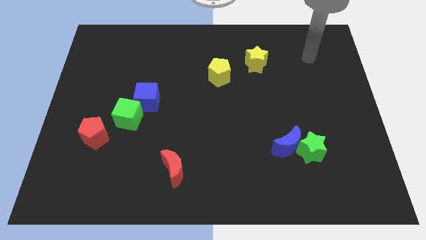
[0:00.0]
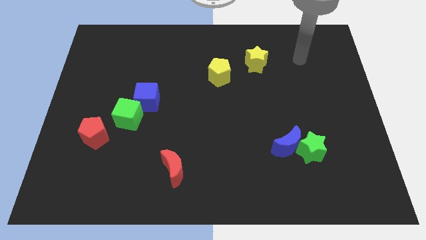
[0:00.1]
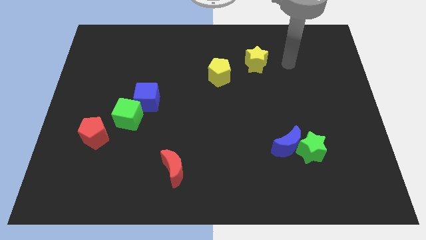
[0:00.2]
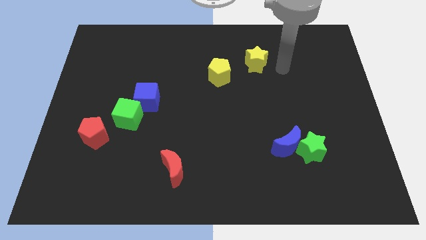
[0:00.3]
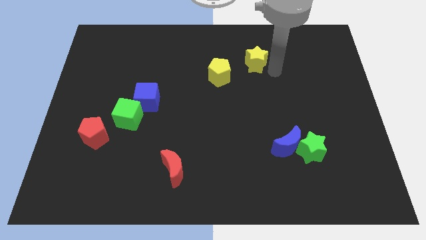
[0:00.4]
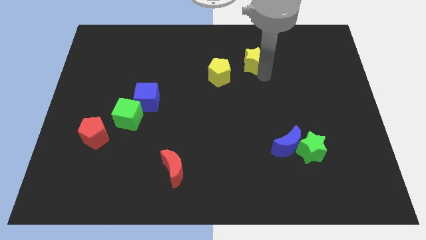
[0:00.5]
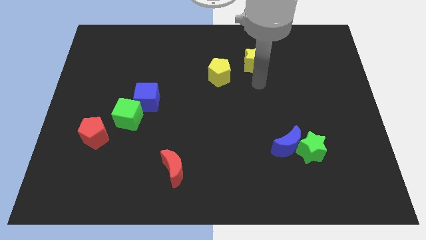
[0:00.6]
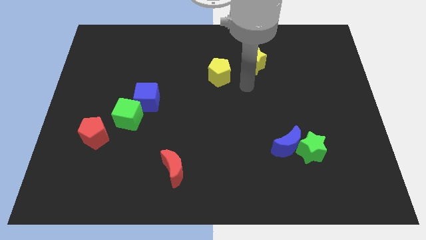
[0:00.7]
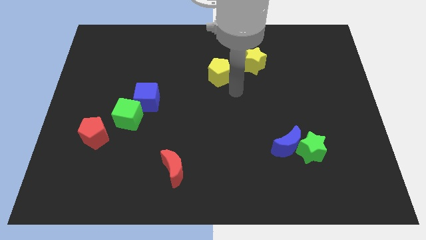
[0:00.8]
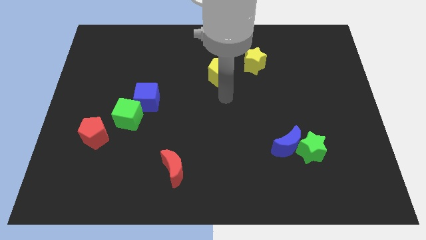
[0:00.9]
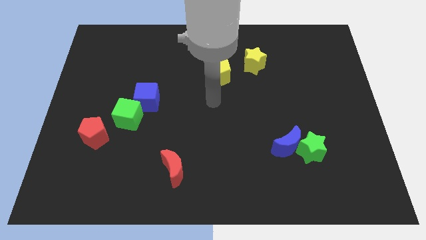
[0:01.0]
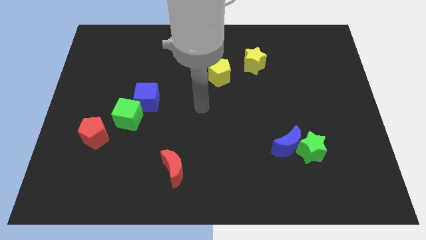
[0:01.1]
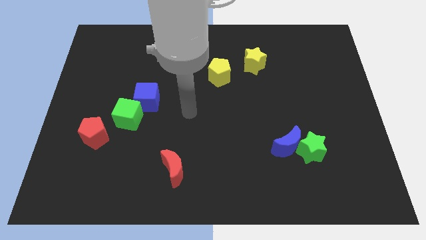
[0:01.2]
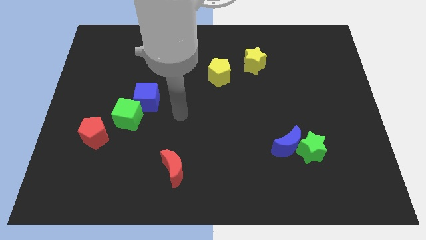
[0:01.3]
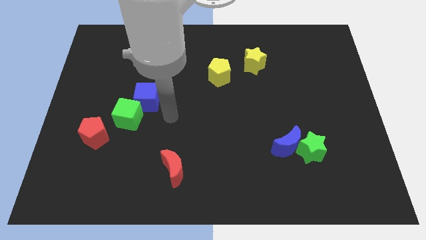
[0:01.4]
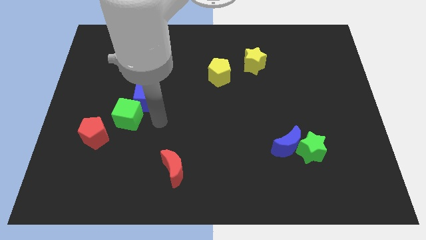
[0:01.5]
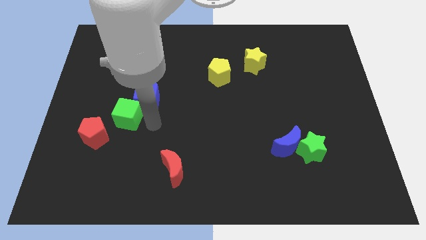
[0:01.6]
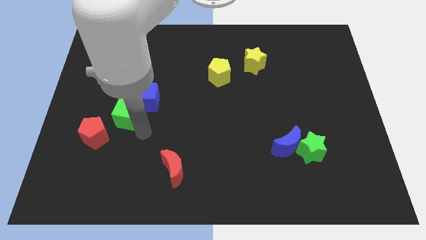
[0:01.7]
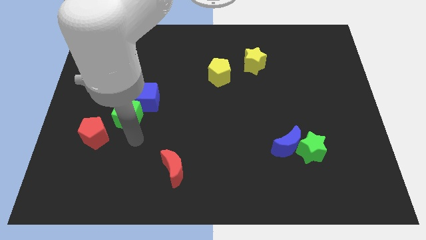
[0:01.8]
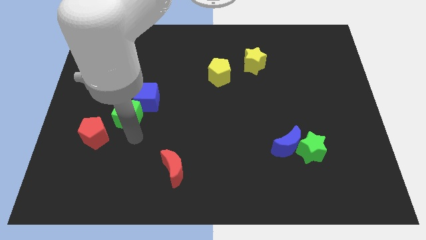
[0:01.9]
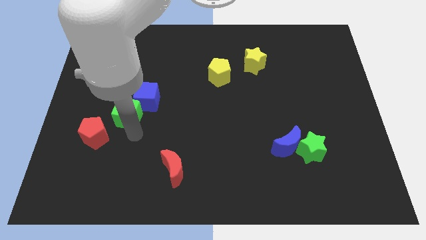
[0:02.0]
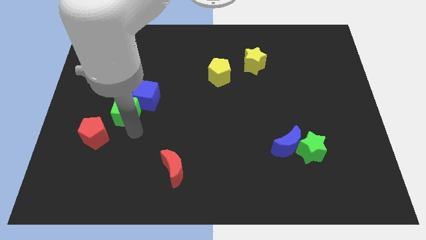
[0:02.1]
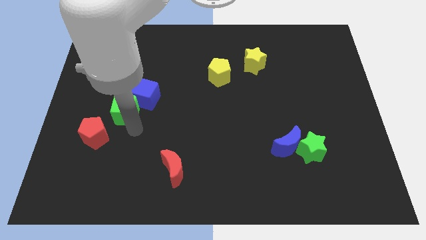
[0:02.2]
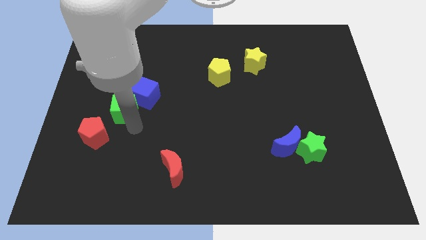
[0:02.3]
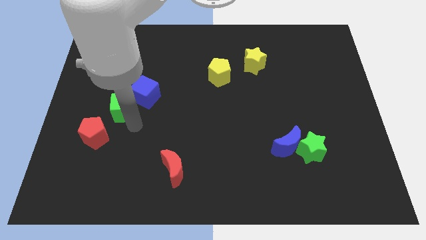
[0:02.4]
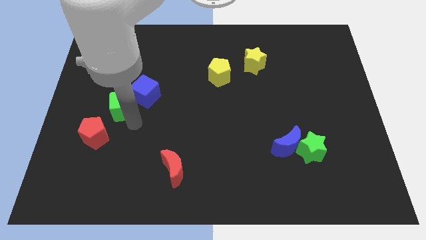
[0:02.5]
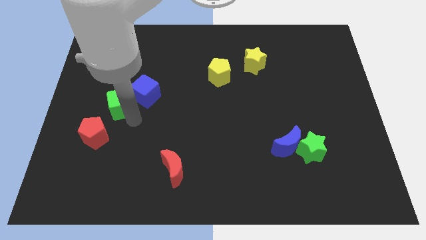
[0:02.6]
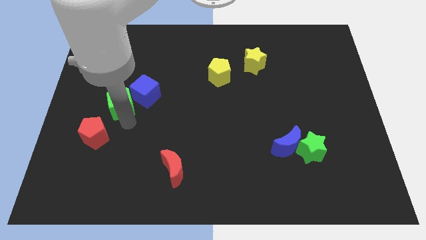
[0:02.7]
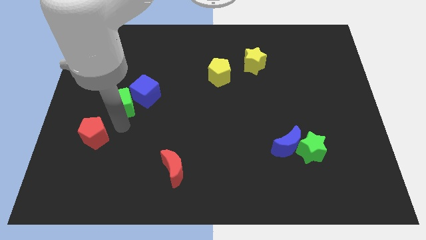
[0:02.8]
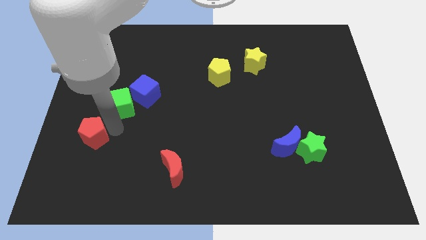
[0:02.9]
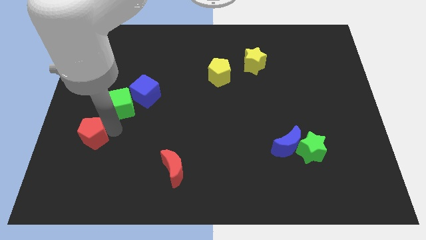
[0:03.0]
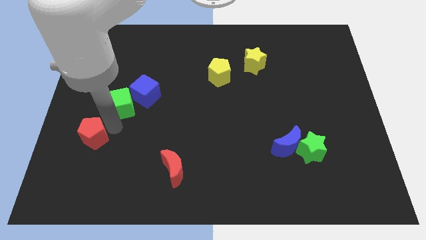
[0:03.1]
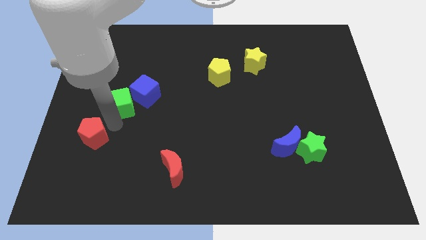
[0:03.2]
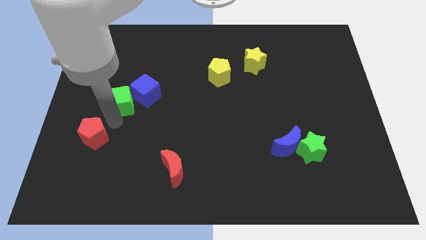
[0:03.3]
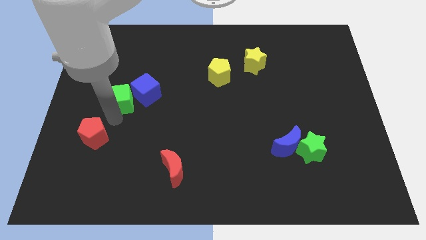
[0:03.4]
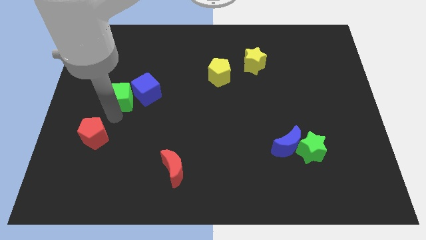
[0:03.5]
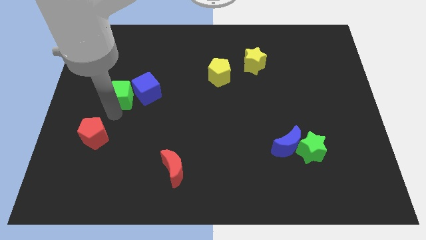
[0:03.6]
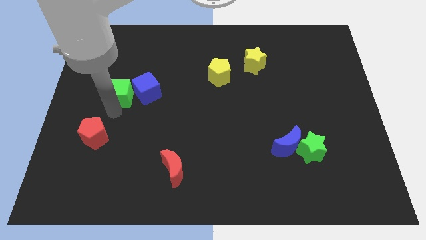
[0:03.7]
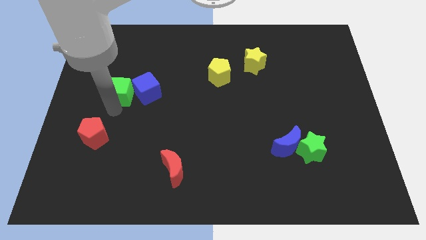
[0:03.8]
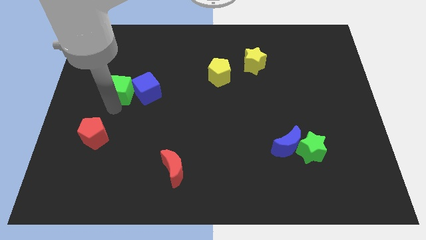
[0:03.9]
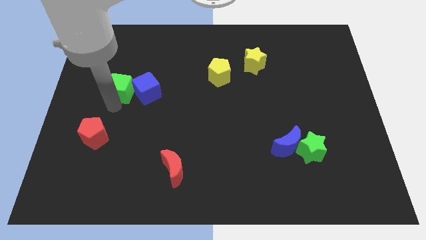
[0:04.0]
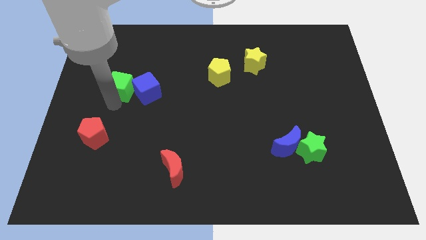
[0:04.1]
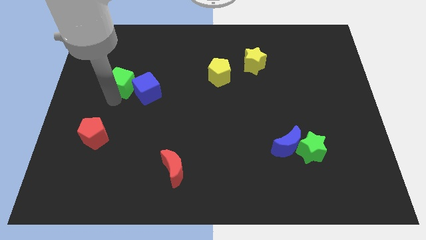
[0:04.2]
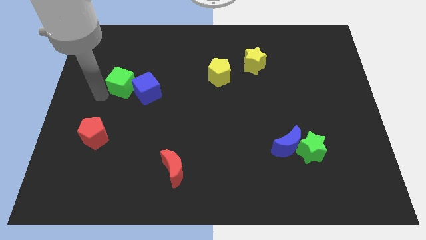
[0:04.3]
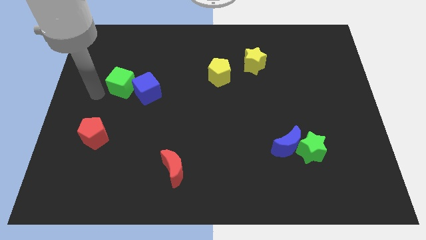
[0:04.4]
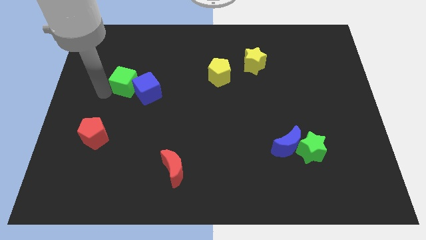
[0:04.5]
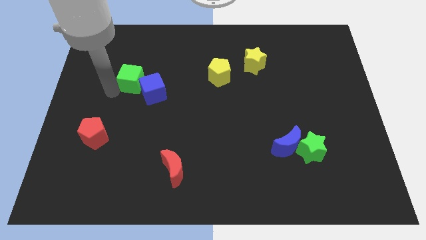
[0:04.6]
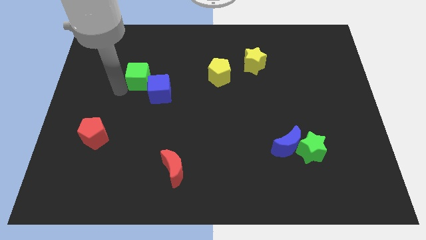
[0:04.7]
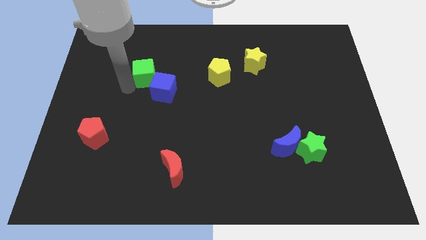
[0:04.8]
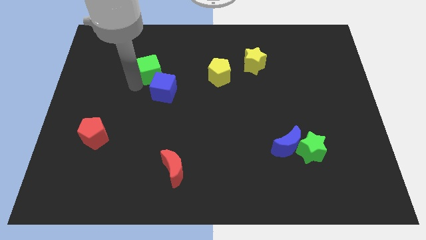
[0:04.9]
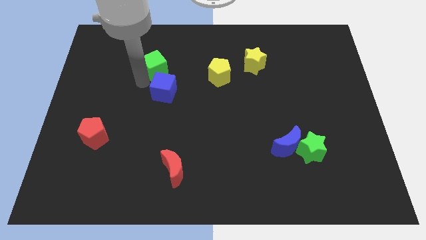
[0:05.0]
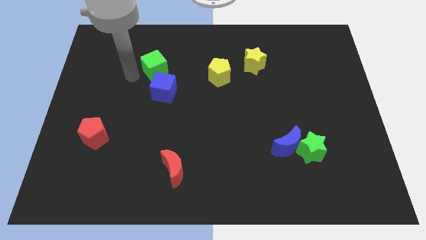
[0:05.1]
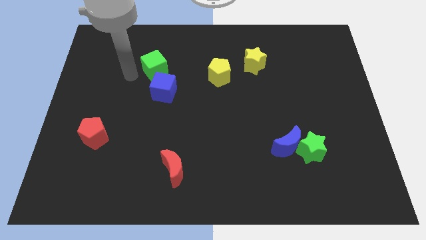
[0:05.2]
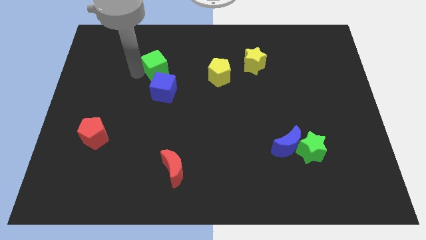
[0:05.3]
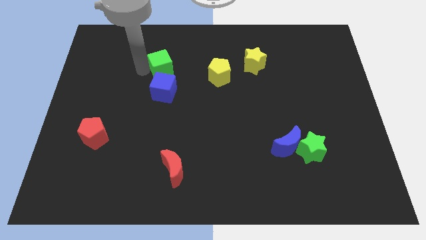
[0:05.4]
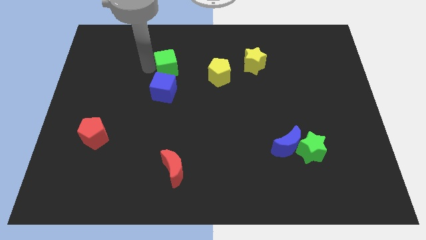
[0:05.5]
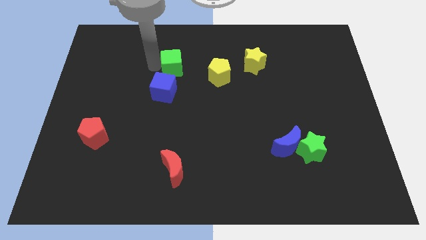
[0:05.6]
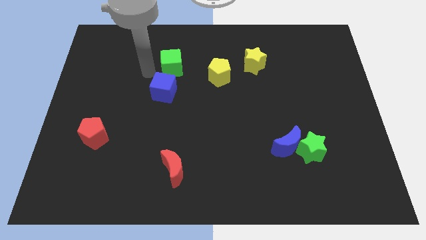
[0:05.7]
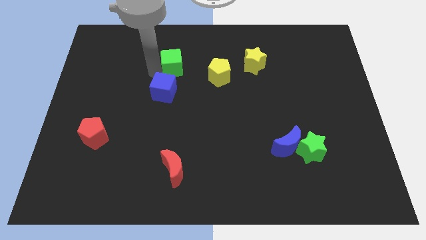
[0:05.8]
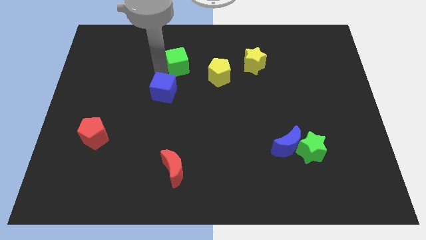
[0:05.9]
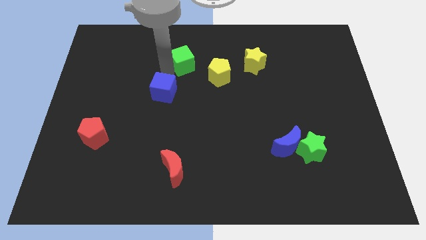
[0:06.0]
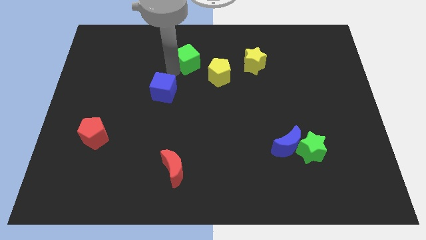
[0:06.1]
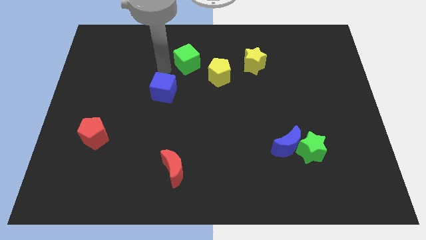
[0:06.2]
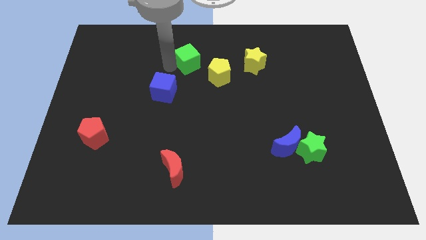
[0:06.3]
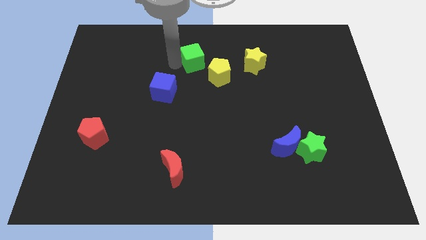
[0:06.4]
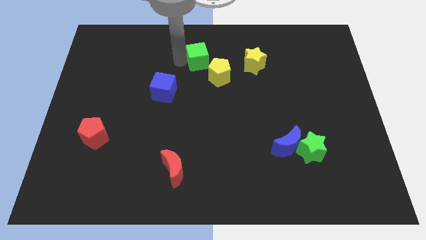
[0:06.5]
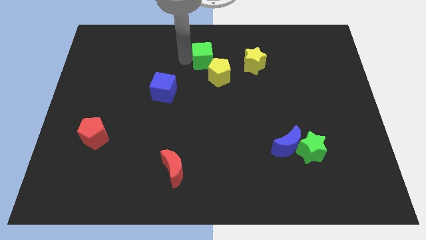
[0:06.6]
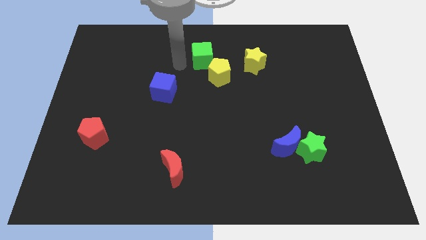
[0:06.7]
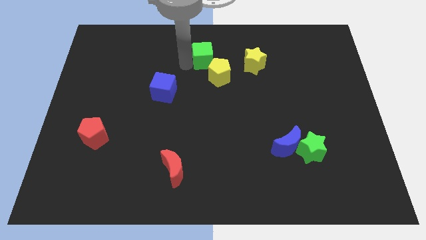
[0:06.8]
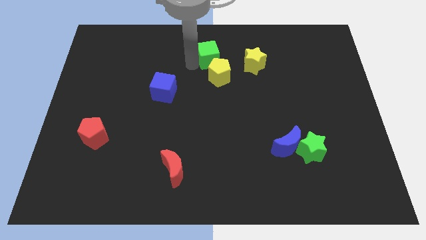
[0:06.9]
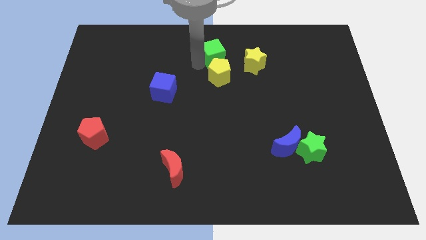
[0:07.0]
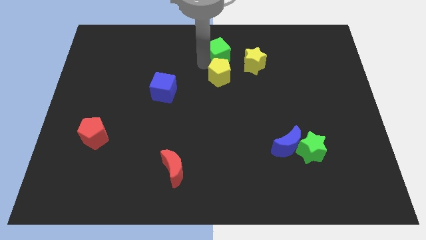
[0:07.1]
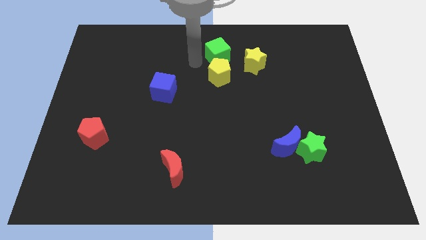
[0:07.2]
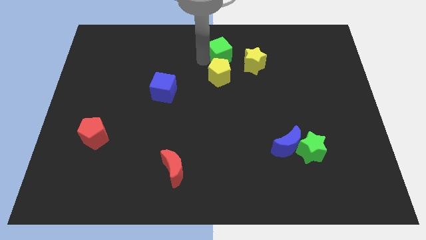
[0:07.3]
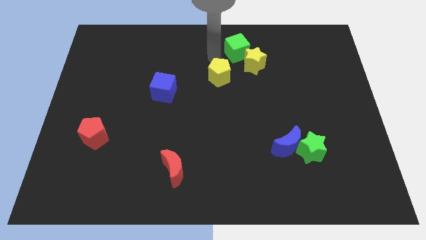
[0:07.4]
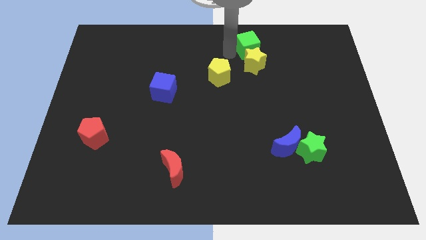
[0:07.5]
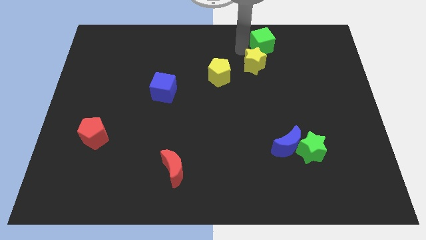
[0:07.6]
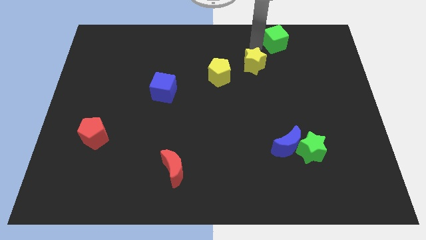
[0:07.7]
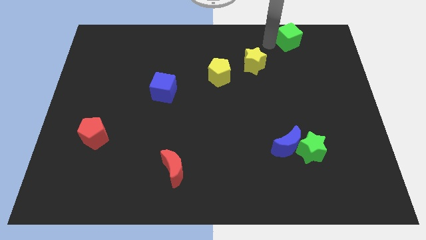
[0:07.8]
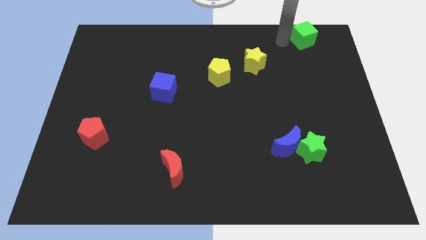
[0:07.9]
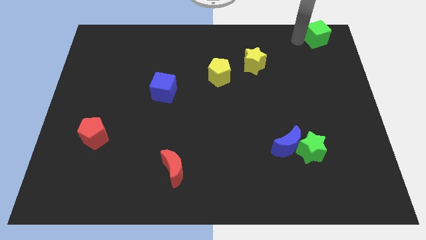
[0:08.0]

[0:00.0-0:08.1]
put the green cube to the upper right corner
